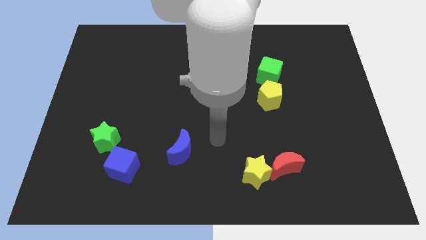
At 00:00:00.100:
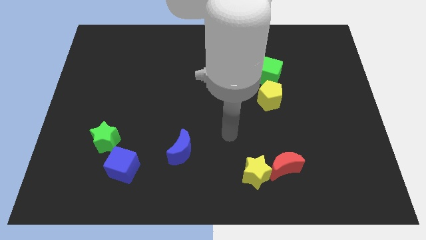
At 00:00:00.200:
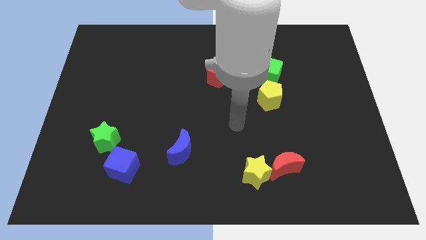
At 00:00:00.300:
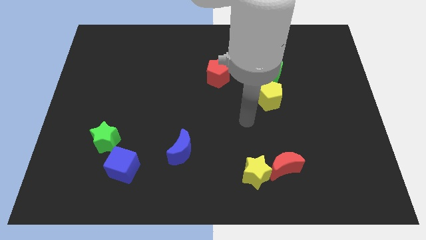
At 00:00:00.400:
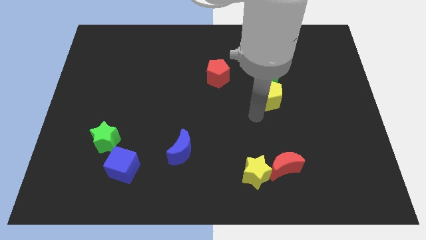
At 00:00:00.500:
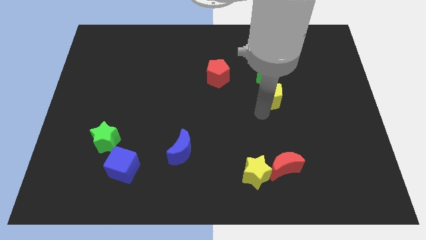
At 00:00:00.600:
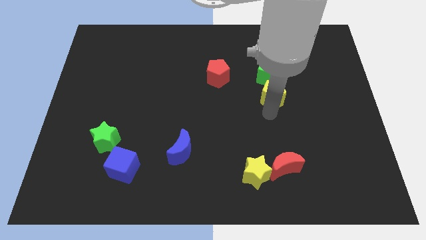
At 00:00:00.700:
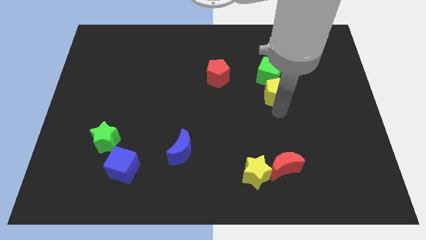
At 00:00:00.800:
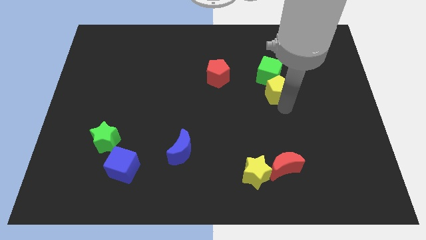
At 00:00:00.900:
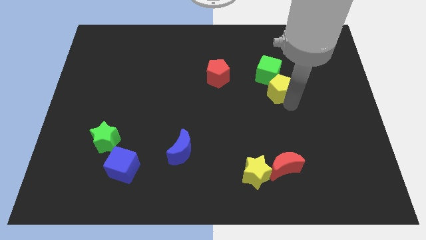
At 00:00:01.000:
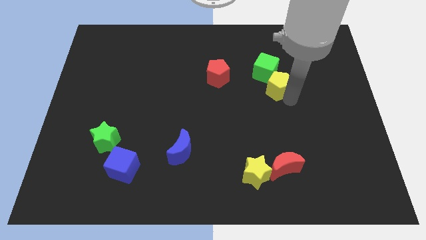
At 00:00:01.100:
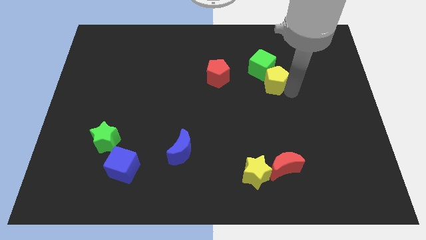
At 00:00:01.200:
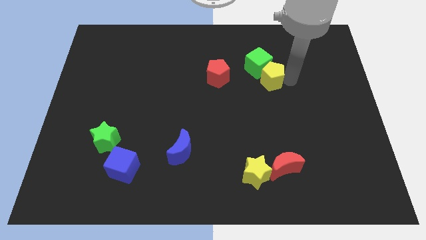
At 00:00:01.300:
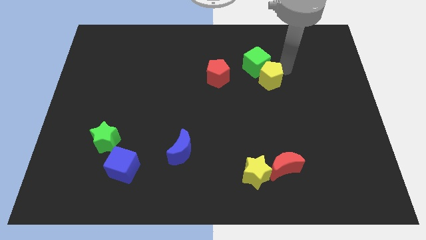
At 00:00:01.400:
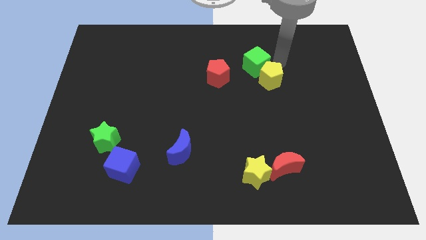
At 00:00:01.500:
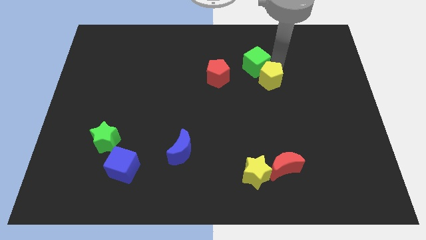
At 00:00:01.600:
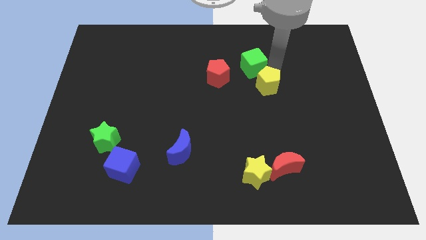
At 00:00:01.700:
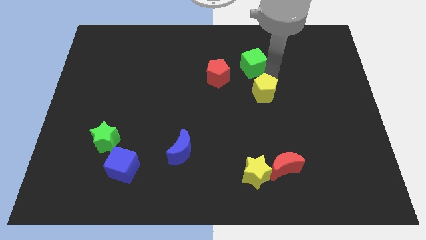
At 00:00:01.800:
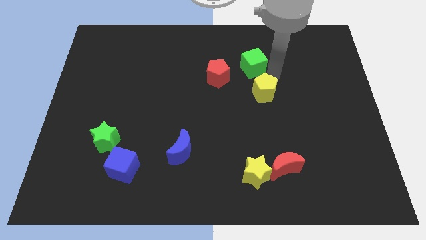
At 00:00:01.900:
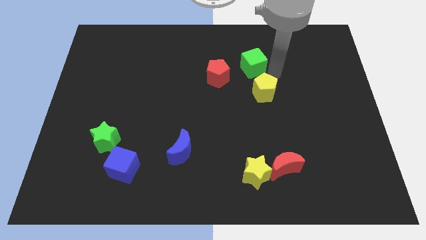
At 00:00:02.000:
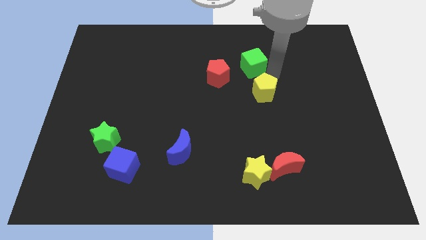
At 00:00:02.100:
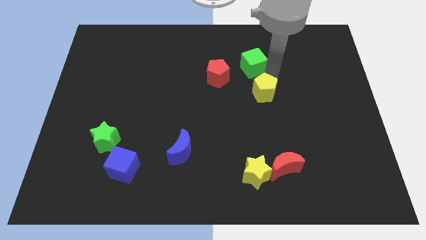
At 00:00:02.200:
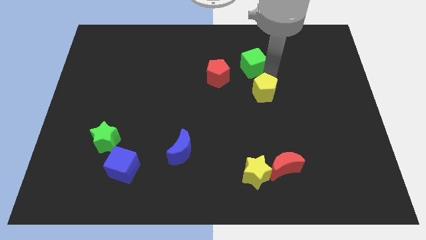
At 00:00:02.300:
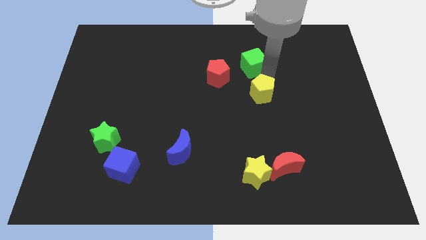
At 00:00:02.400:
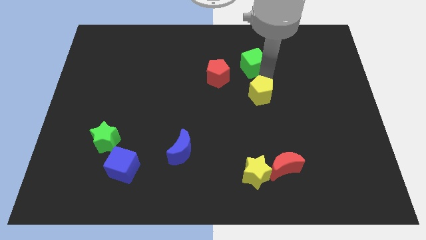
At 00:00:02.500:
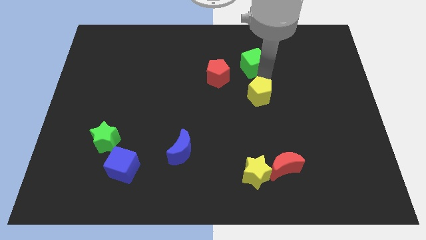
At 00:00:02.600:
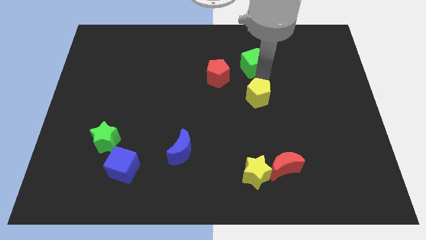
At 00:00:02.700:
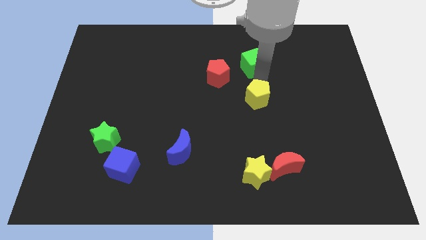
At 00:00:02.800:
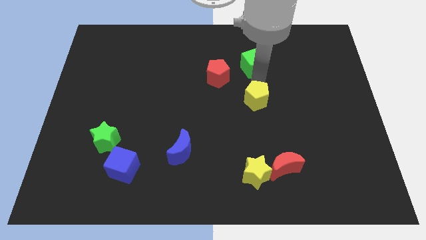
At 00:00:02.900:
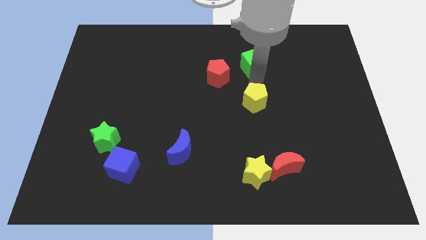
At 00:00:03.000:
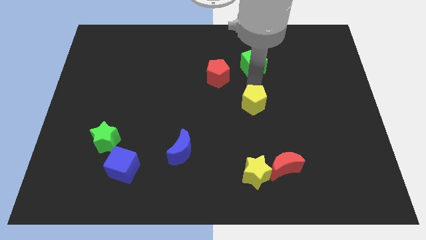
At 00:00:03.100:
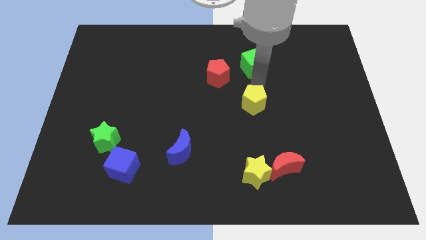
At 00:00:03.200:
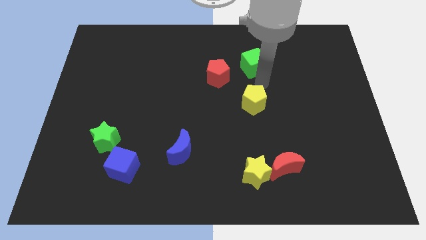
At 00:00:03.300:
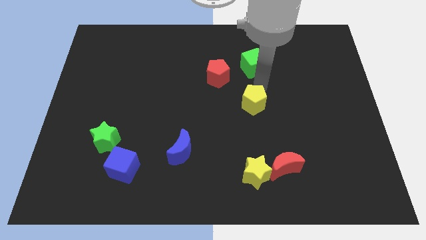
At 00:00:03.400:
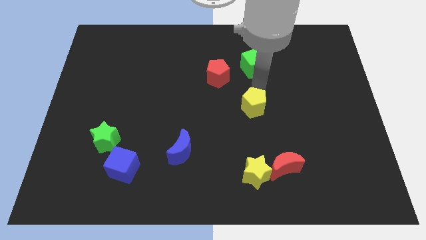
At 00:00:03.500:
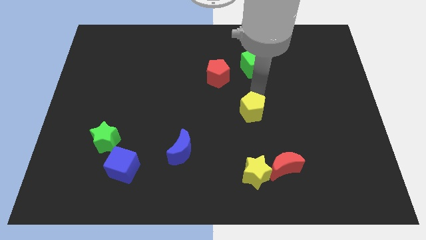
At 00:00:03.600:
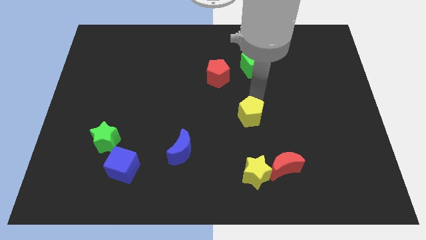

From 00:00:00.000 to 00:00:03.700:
slide the yellow pentagon down and left diagonally a bit

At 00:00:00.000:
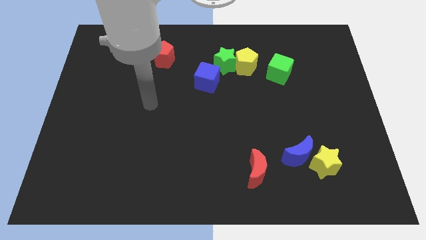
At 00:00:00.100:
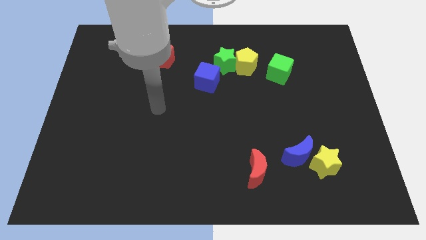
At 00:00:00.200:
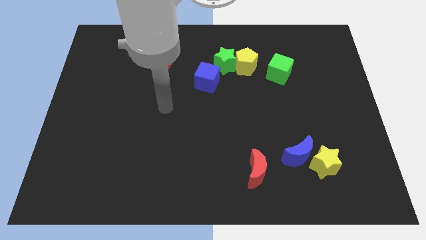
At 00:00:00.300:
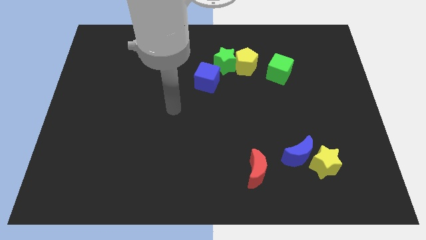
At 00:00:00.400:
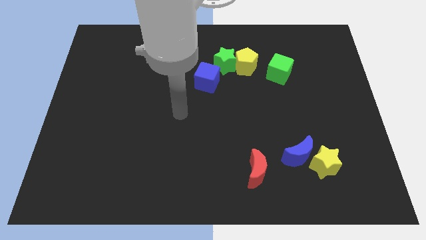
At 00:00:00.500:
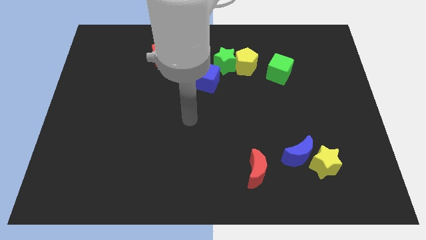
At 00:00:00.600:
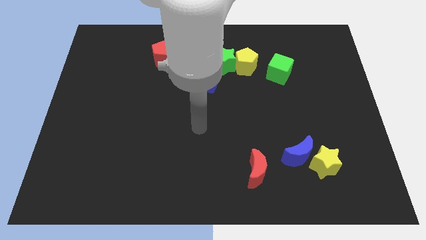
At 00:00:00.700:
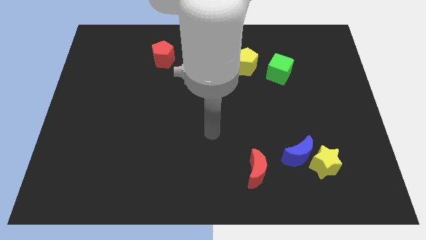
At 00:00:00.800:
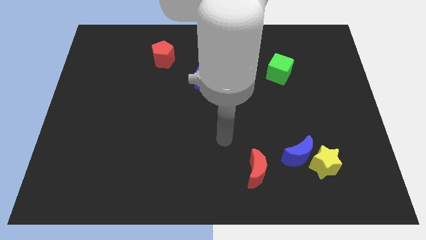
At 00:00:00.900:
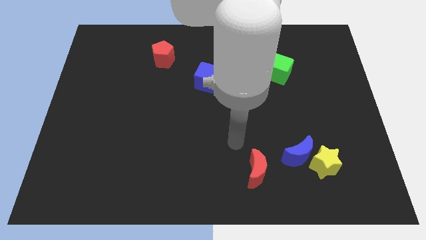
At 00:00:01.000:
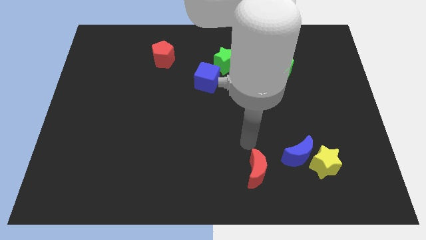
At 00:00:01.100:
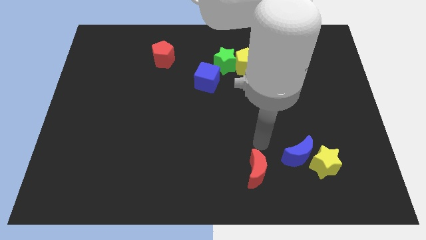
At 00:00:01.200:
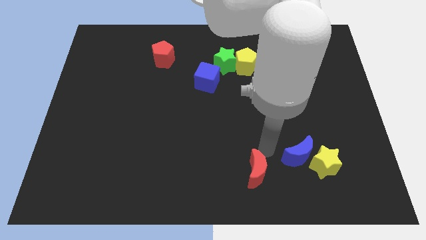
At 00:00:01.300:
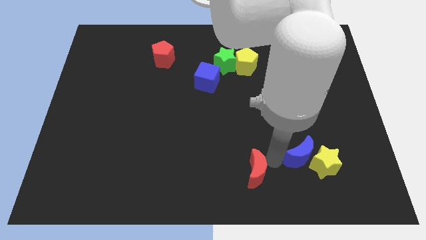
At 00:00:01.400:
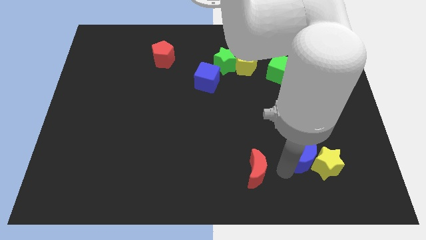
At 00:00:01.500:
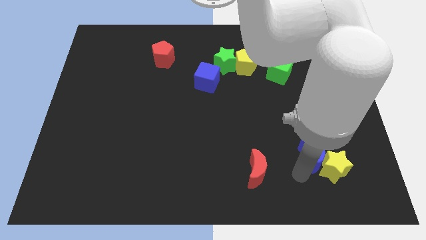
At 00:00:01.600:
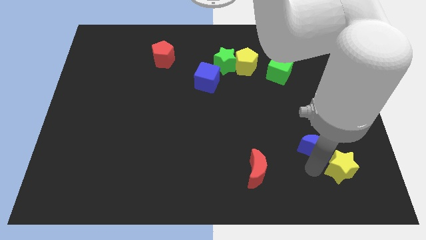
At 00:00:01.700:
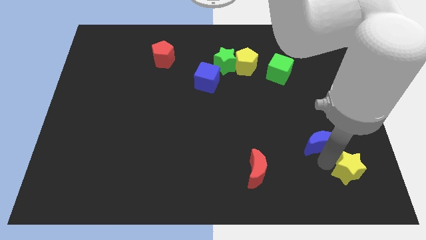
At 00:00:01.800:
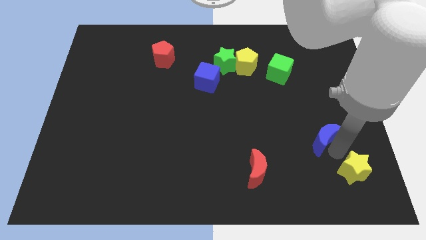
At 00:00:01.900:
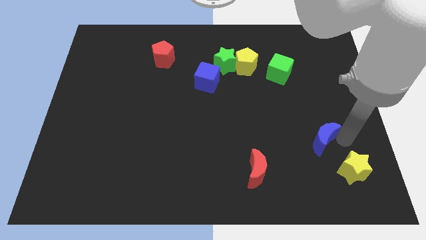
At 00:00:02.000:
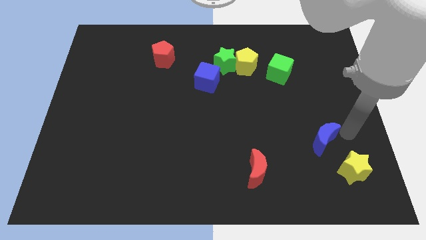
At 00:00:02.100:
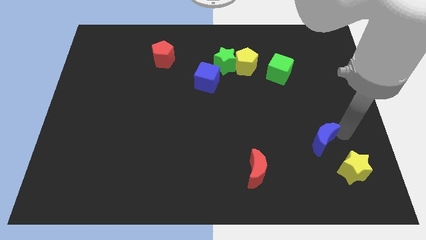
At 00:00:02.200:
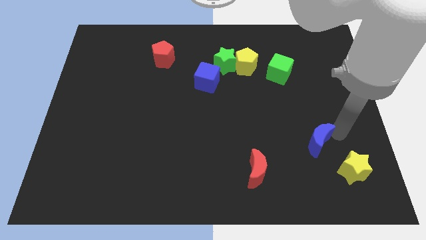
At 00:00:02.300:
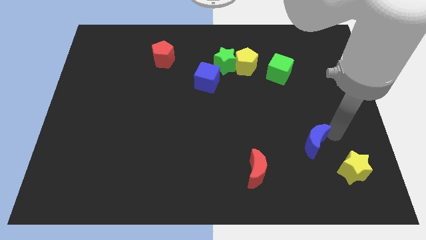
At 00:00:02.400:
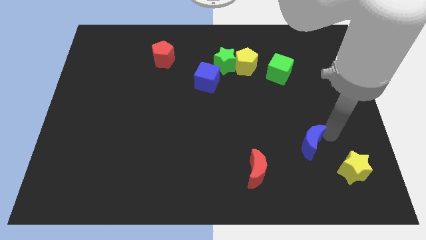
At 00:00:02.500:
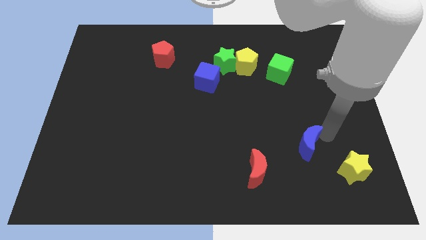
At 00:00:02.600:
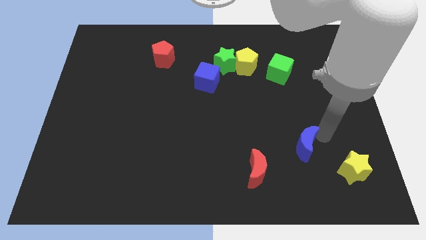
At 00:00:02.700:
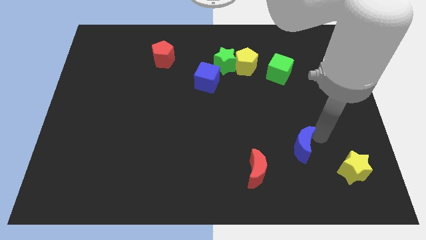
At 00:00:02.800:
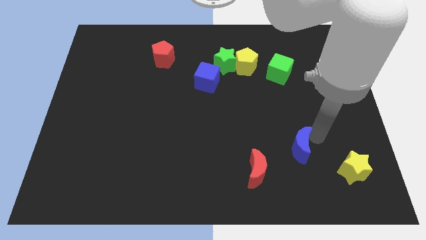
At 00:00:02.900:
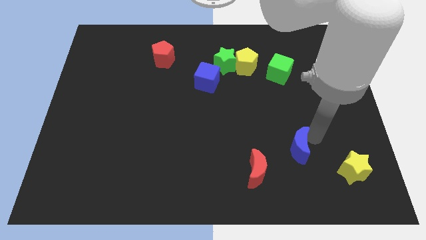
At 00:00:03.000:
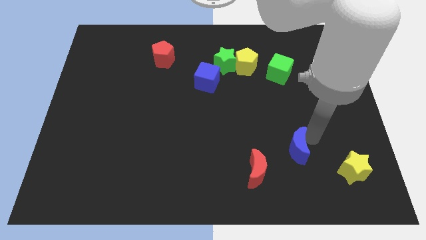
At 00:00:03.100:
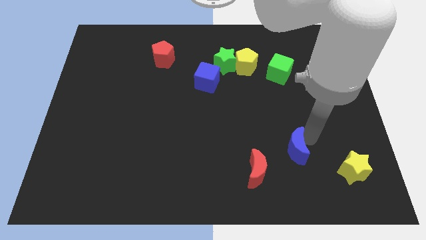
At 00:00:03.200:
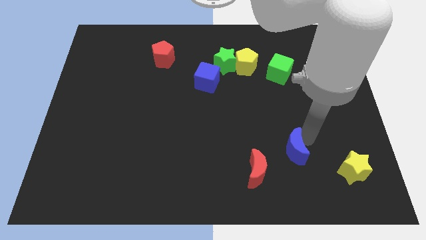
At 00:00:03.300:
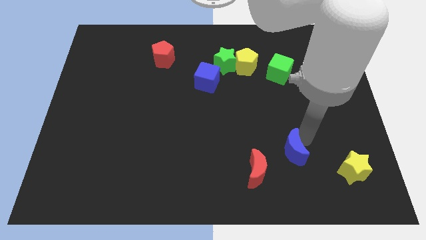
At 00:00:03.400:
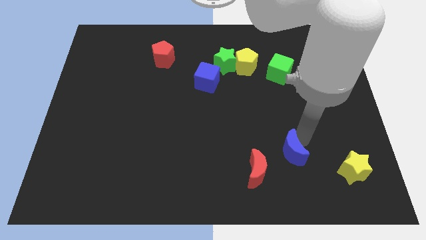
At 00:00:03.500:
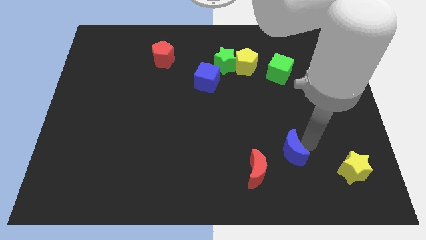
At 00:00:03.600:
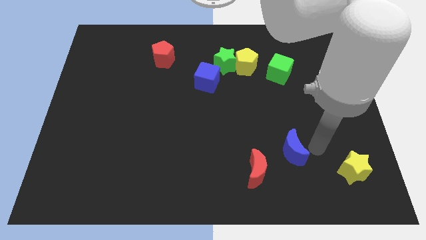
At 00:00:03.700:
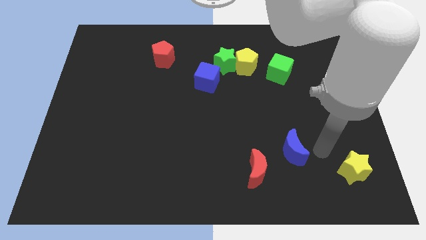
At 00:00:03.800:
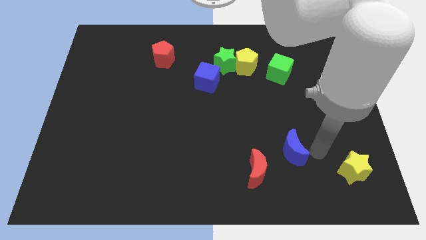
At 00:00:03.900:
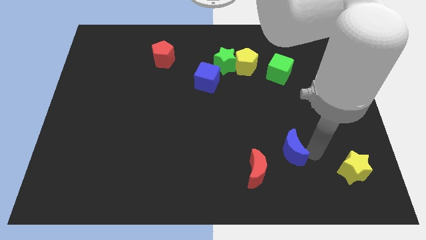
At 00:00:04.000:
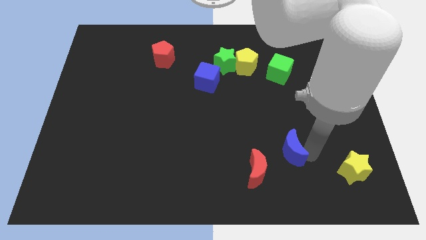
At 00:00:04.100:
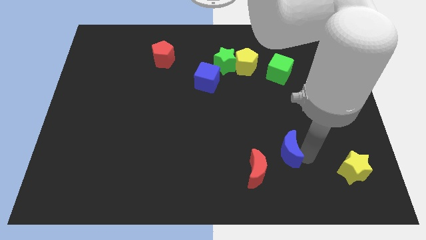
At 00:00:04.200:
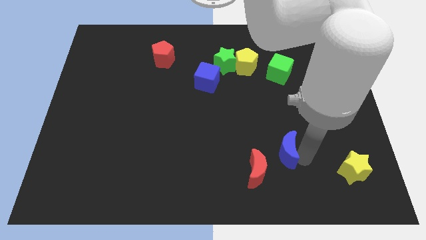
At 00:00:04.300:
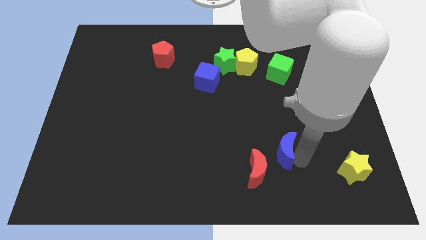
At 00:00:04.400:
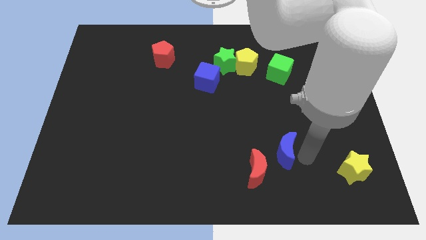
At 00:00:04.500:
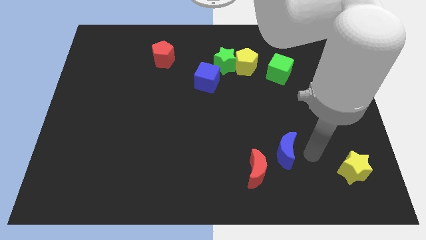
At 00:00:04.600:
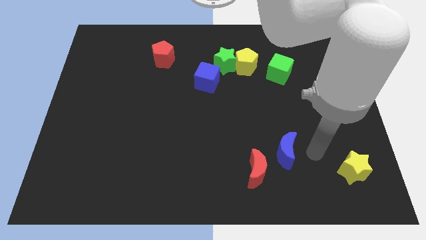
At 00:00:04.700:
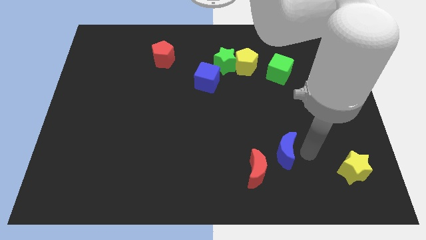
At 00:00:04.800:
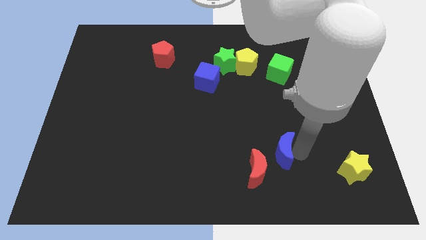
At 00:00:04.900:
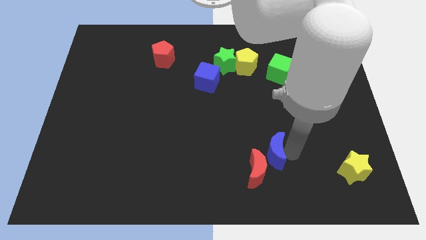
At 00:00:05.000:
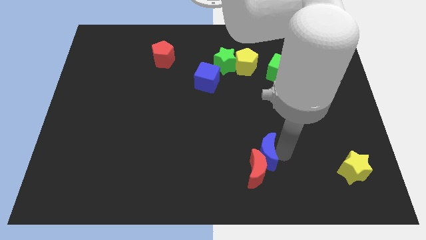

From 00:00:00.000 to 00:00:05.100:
push the blue moon to the left slightly
